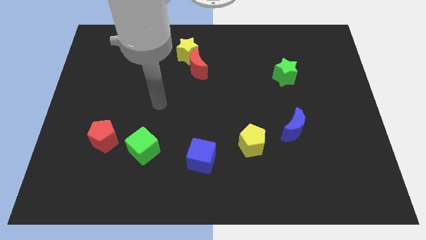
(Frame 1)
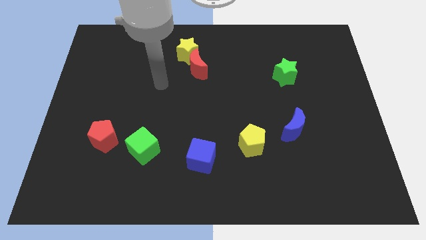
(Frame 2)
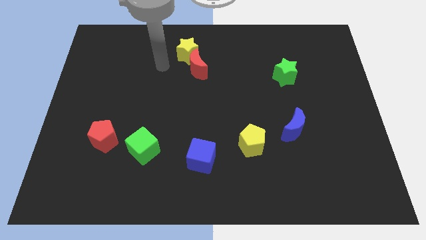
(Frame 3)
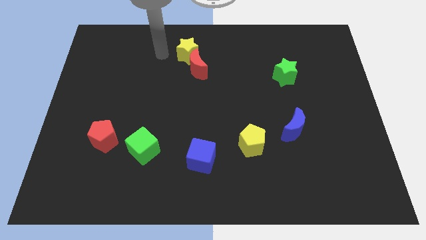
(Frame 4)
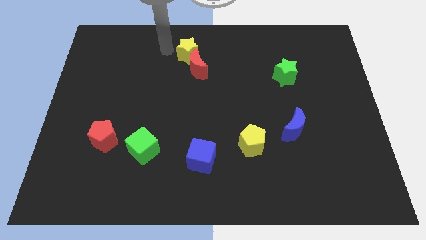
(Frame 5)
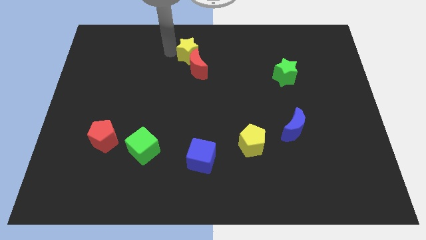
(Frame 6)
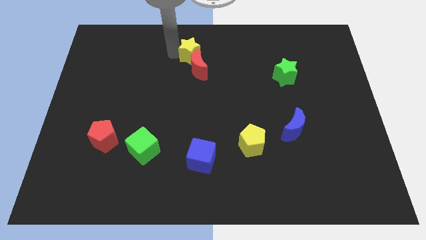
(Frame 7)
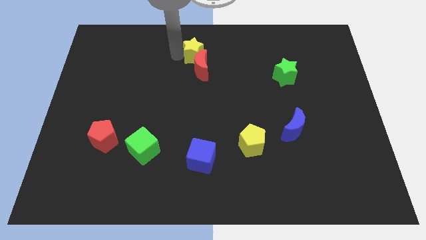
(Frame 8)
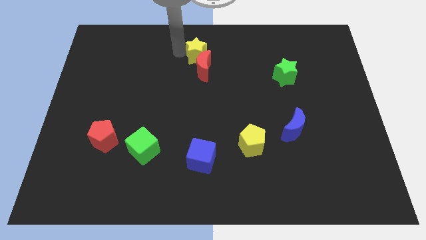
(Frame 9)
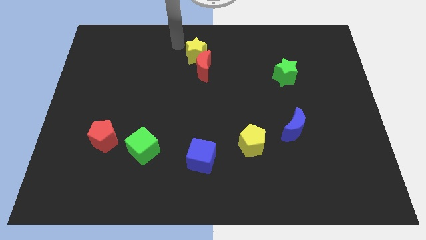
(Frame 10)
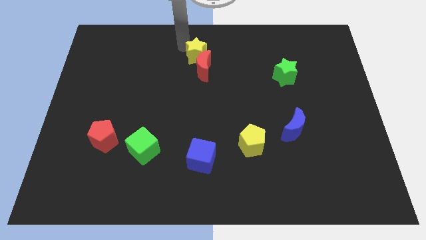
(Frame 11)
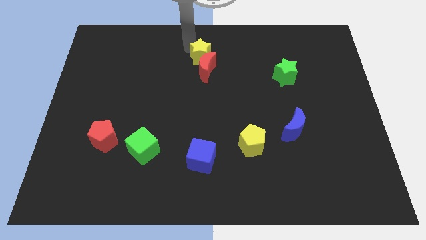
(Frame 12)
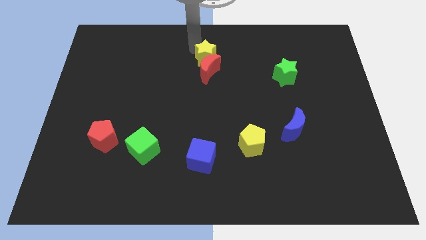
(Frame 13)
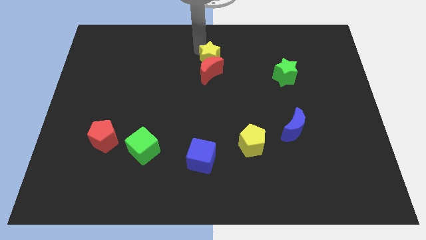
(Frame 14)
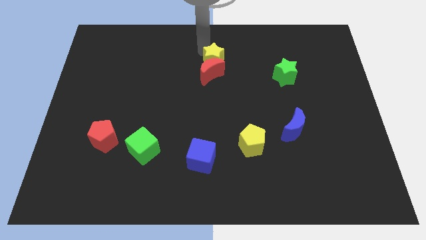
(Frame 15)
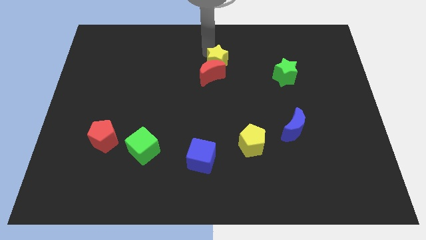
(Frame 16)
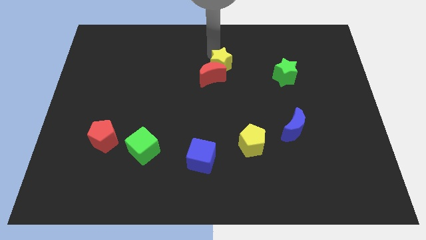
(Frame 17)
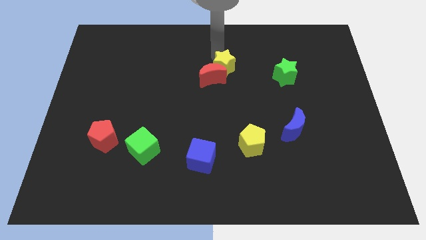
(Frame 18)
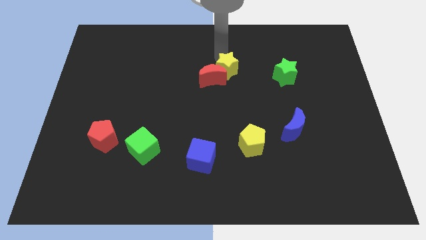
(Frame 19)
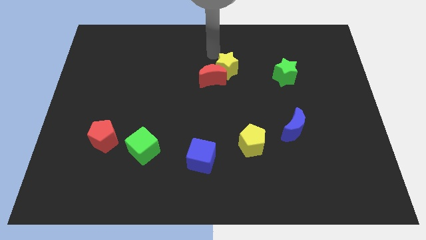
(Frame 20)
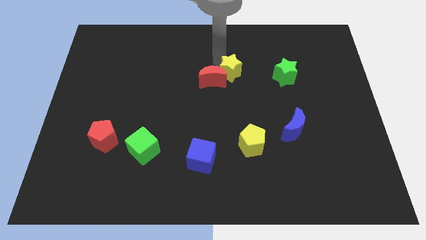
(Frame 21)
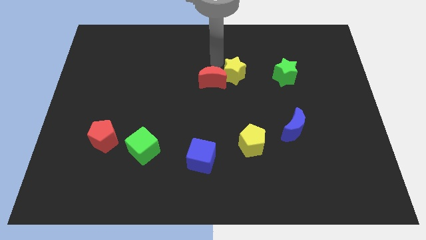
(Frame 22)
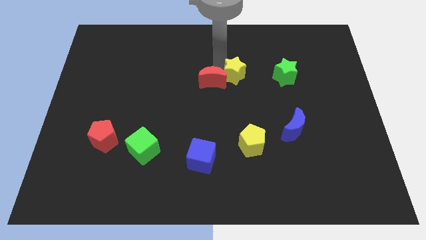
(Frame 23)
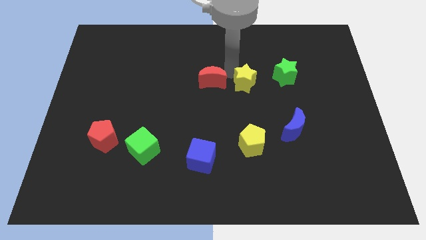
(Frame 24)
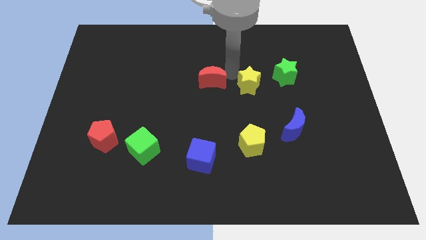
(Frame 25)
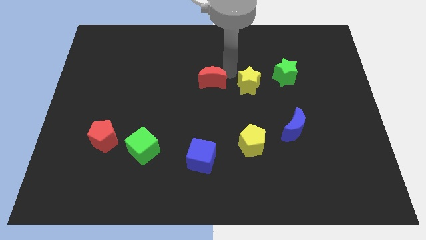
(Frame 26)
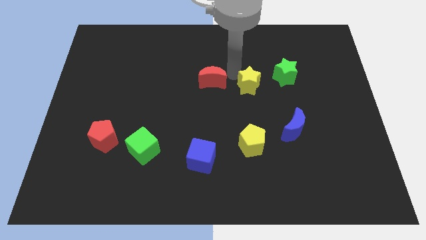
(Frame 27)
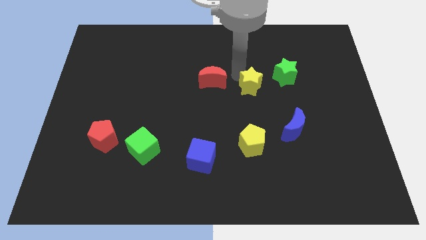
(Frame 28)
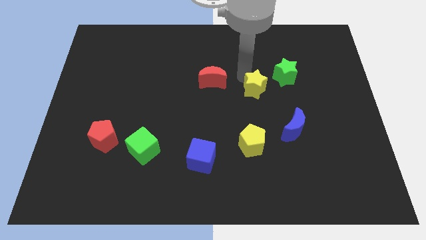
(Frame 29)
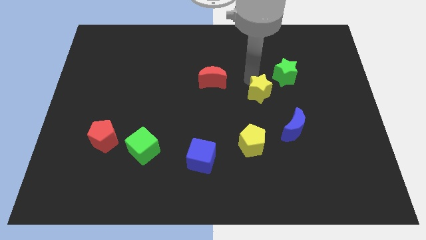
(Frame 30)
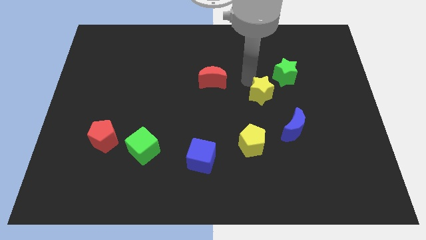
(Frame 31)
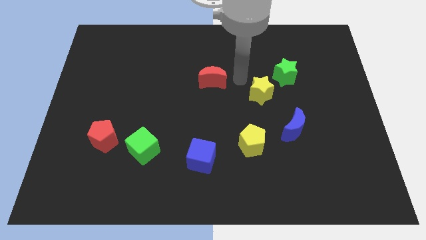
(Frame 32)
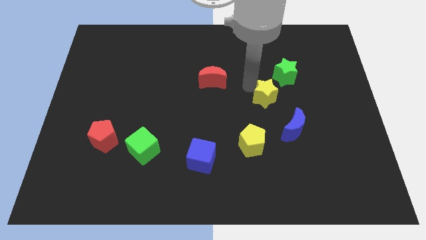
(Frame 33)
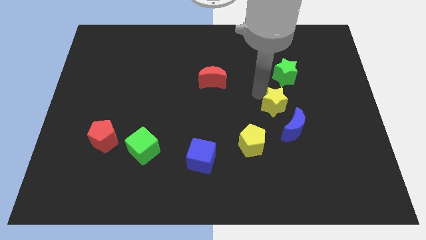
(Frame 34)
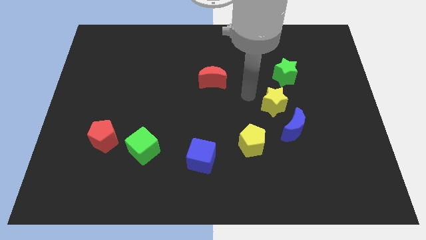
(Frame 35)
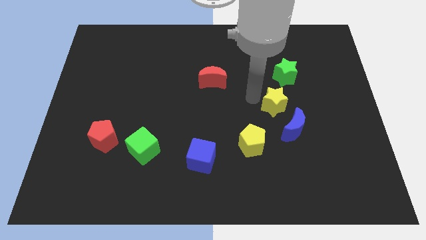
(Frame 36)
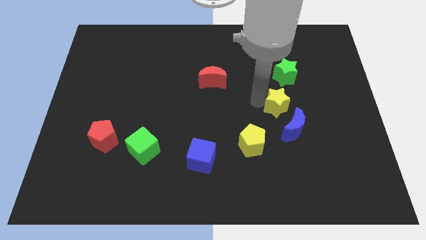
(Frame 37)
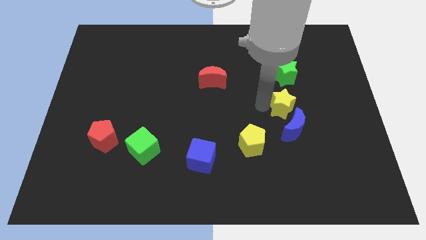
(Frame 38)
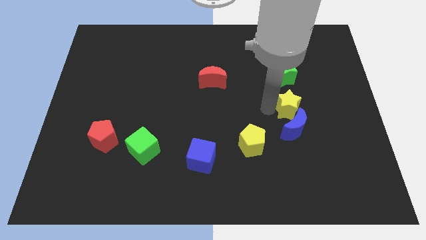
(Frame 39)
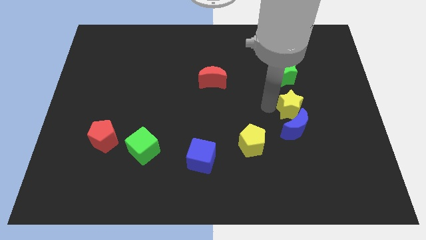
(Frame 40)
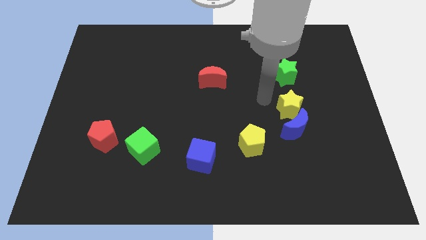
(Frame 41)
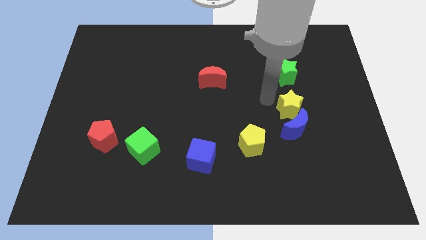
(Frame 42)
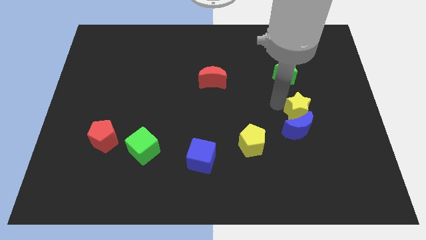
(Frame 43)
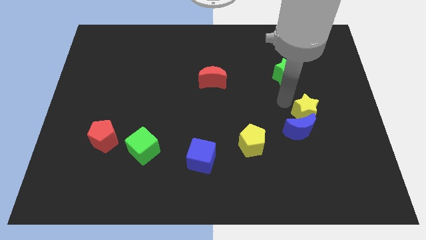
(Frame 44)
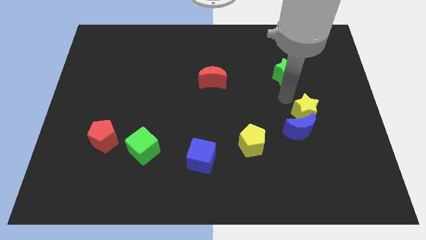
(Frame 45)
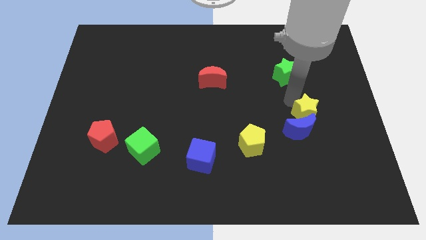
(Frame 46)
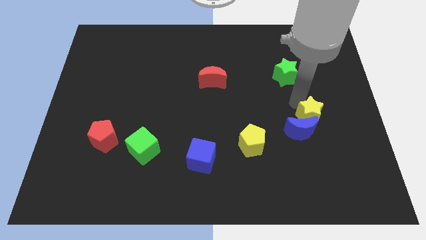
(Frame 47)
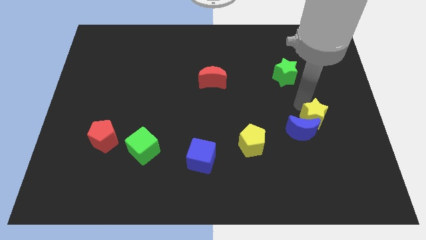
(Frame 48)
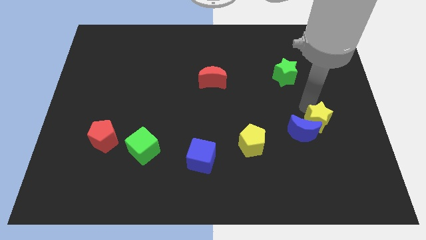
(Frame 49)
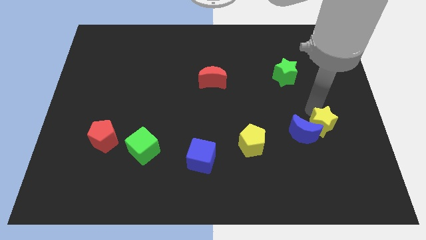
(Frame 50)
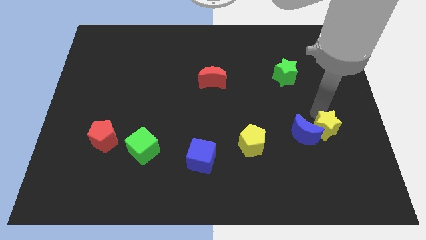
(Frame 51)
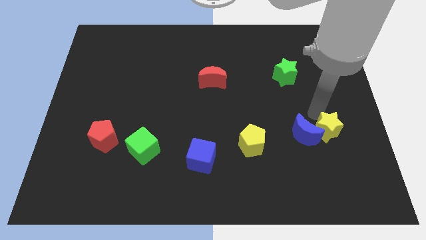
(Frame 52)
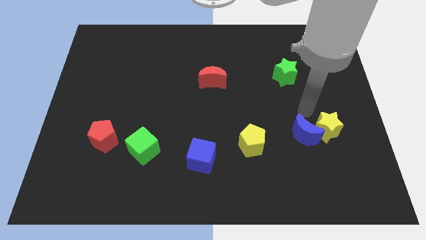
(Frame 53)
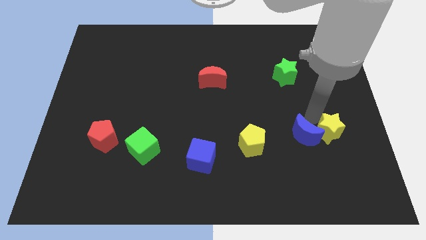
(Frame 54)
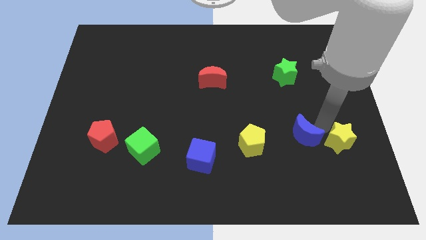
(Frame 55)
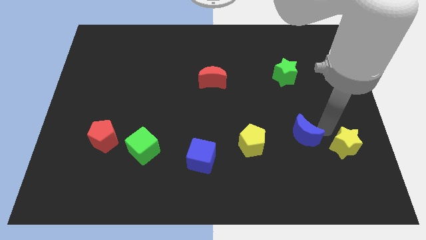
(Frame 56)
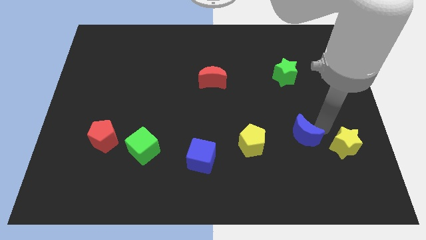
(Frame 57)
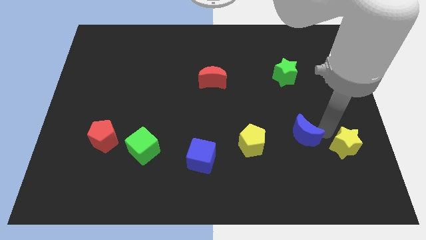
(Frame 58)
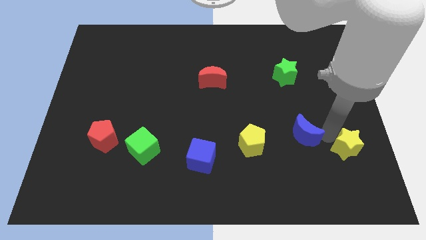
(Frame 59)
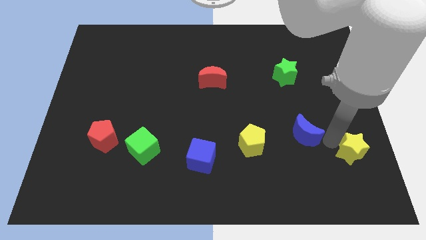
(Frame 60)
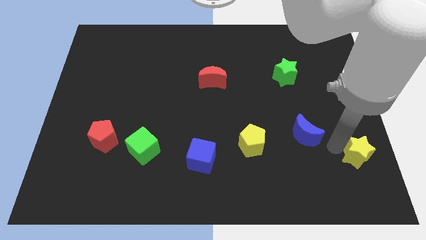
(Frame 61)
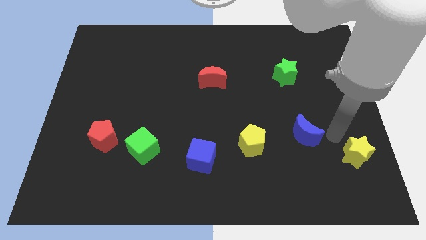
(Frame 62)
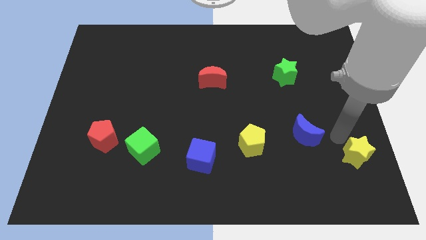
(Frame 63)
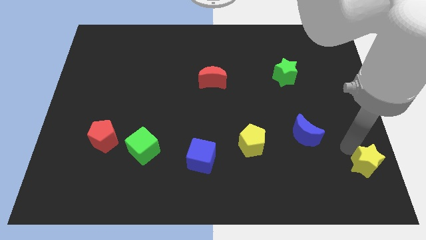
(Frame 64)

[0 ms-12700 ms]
push the yellow star to the bottom right corner
